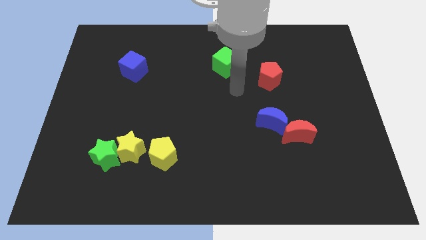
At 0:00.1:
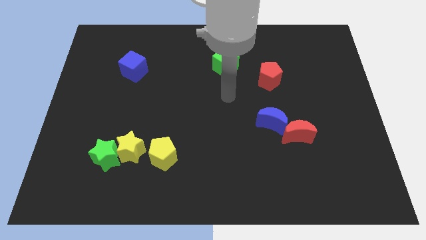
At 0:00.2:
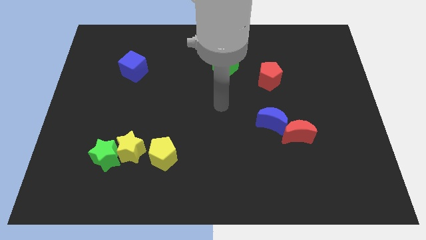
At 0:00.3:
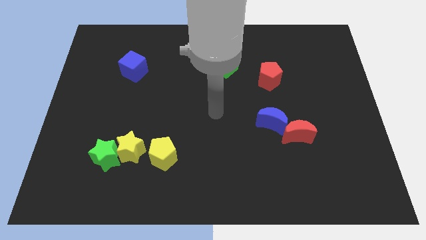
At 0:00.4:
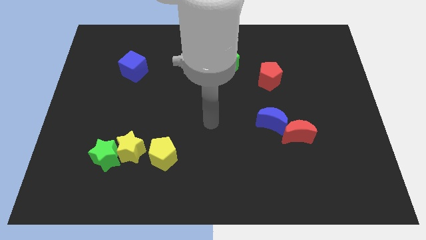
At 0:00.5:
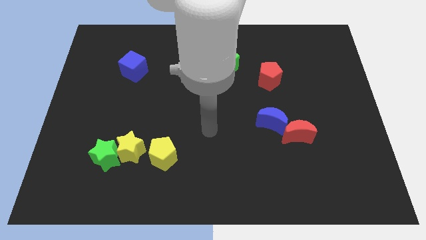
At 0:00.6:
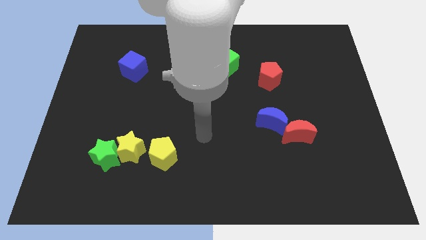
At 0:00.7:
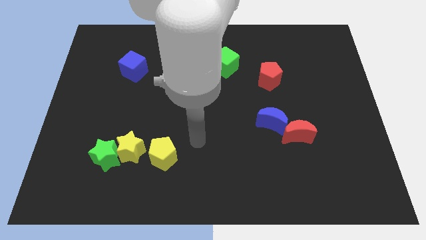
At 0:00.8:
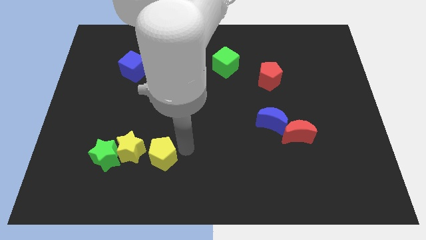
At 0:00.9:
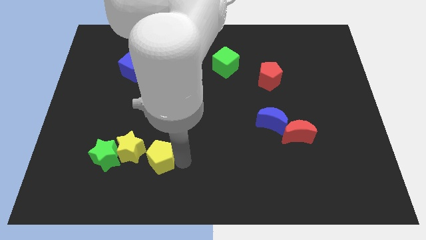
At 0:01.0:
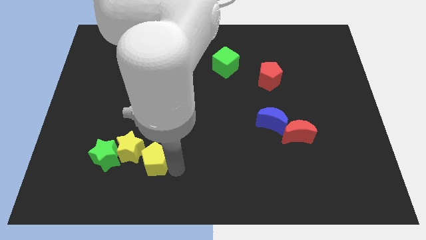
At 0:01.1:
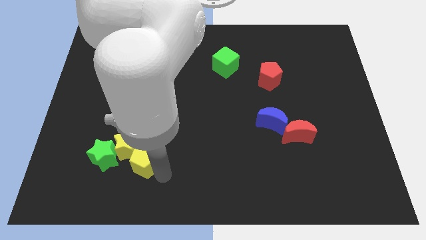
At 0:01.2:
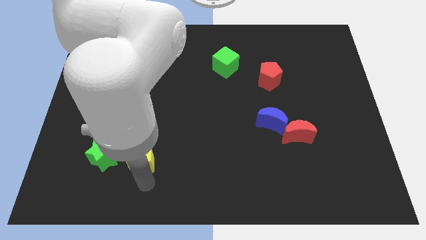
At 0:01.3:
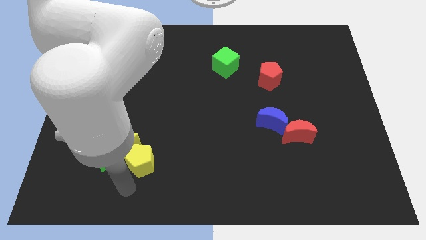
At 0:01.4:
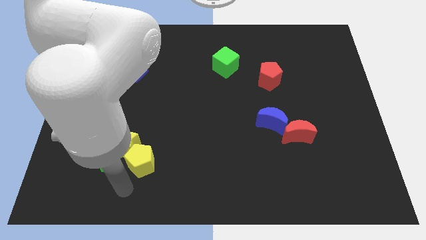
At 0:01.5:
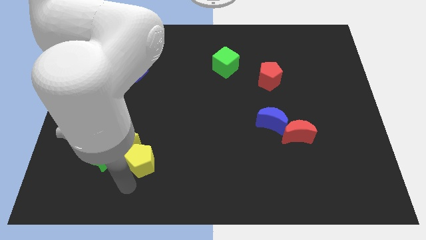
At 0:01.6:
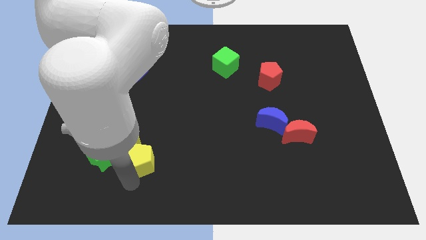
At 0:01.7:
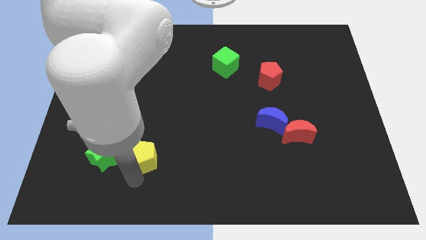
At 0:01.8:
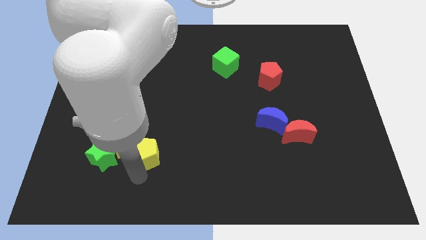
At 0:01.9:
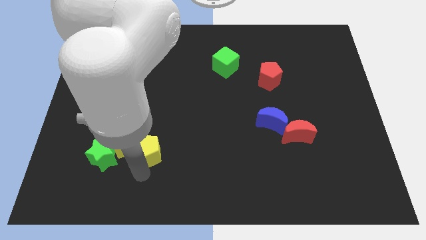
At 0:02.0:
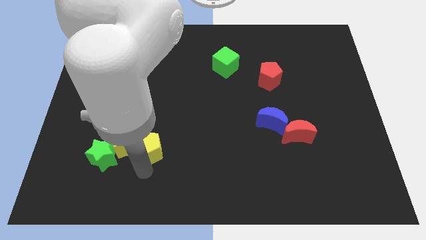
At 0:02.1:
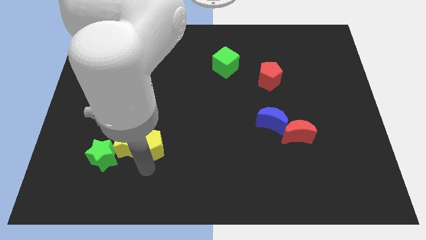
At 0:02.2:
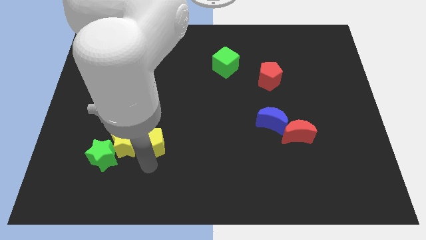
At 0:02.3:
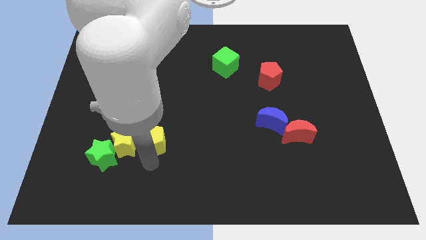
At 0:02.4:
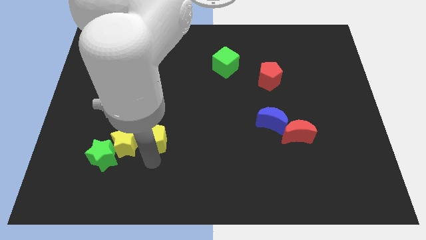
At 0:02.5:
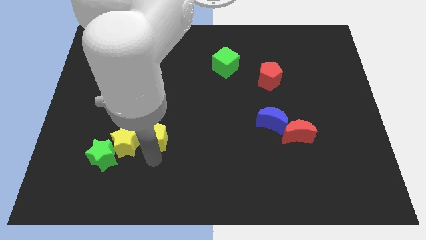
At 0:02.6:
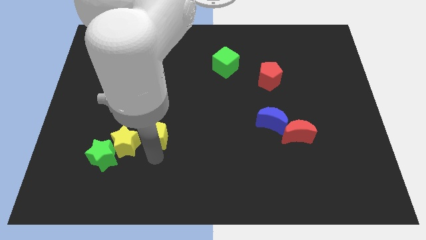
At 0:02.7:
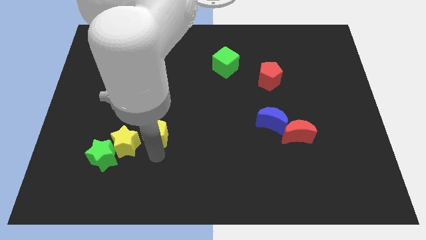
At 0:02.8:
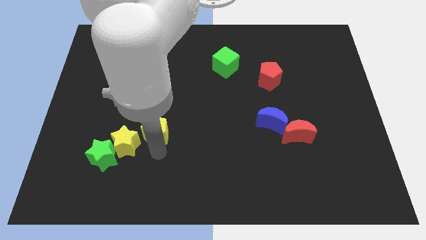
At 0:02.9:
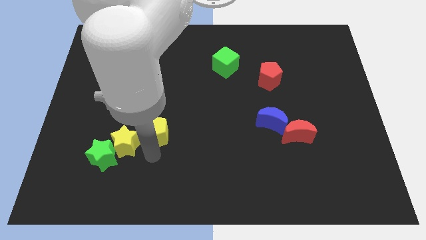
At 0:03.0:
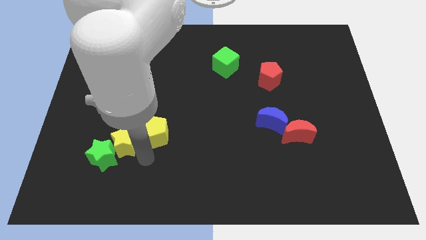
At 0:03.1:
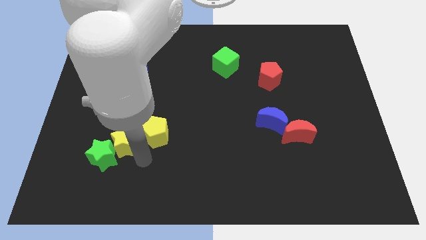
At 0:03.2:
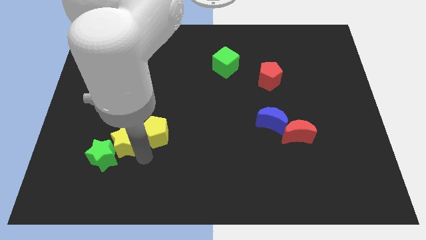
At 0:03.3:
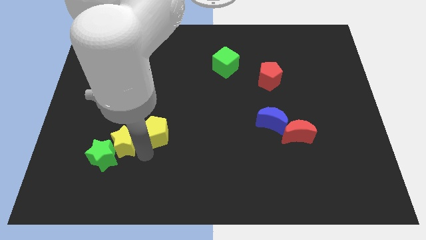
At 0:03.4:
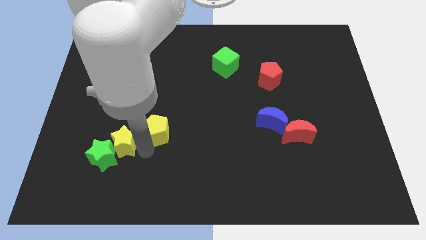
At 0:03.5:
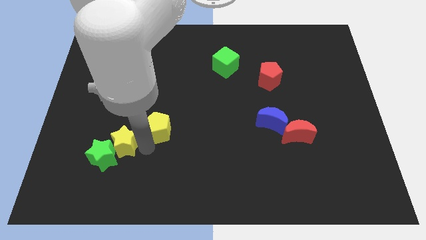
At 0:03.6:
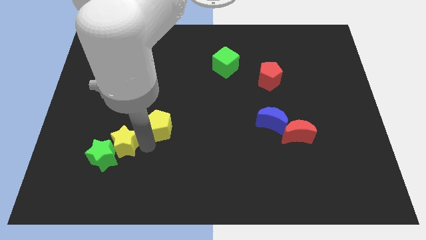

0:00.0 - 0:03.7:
slide the yellow pentagon slightly up

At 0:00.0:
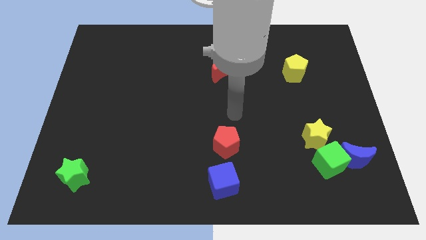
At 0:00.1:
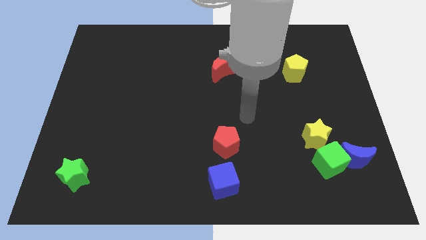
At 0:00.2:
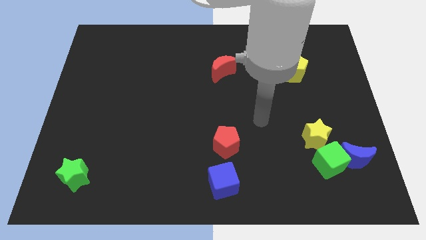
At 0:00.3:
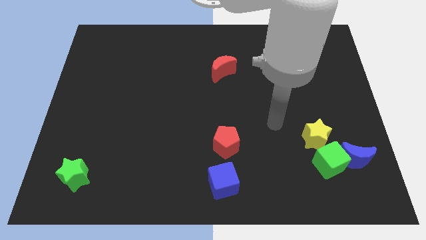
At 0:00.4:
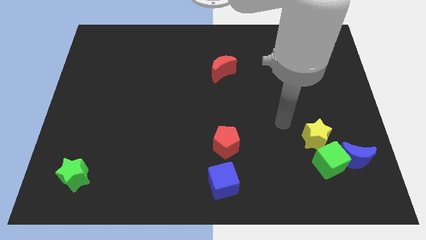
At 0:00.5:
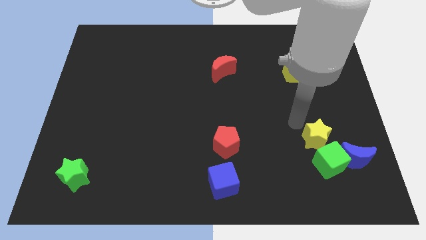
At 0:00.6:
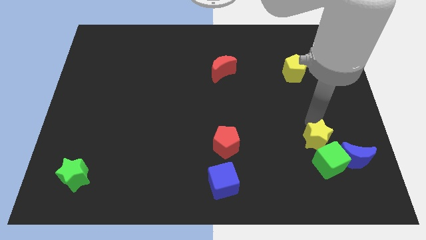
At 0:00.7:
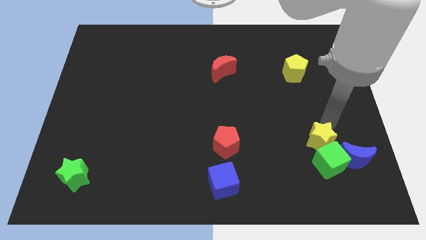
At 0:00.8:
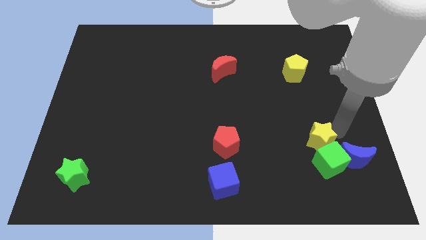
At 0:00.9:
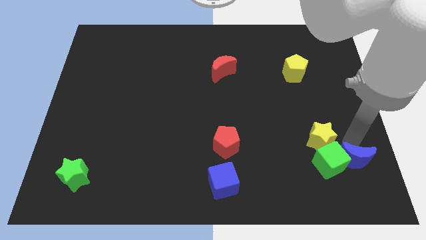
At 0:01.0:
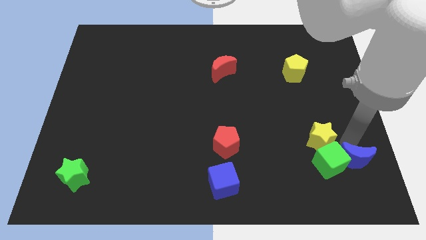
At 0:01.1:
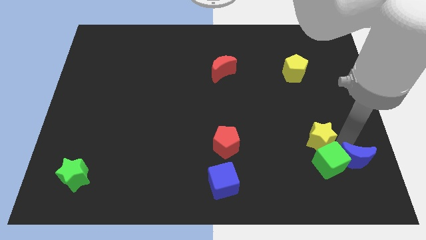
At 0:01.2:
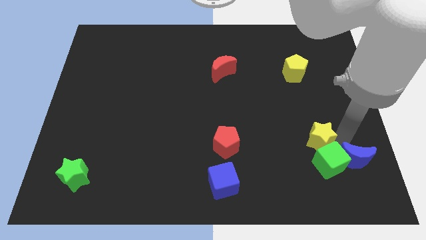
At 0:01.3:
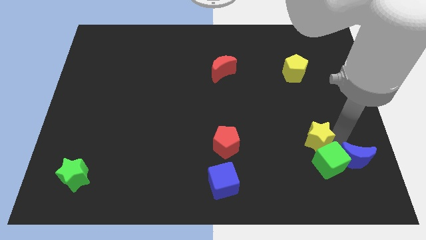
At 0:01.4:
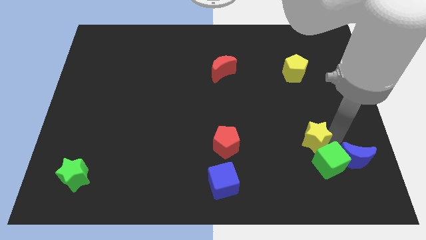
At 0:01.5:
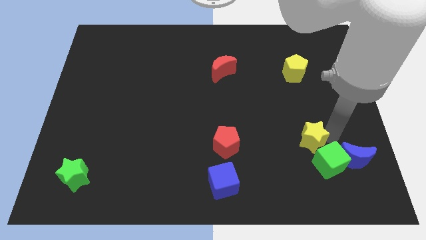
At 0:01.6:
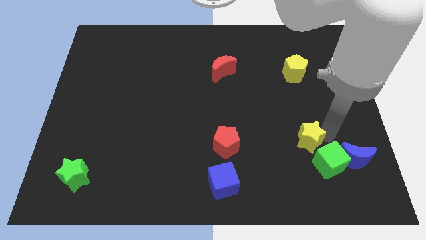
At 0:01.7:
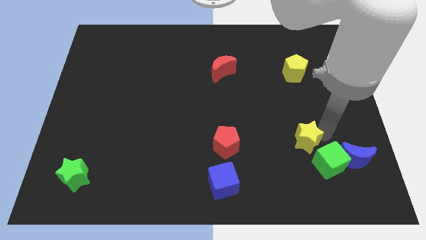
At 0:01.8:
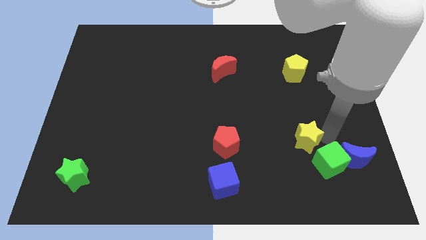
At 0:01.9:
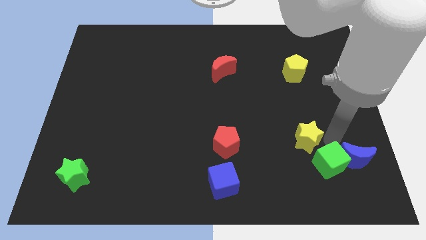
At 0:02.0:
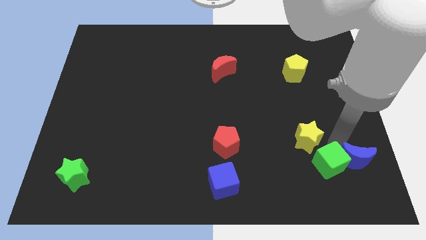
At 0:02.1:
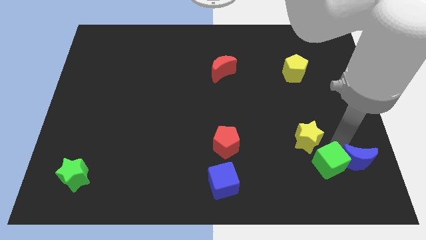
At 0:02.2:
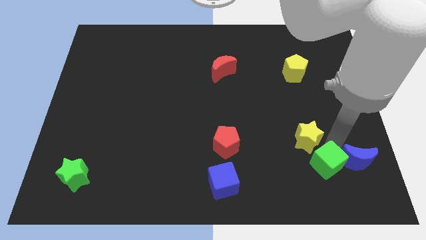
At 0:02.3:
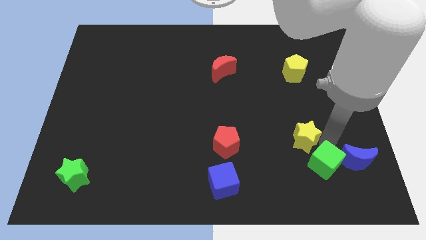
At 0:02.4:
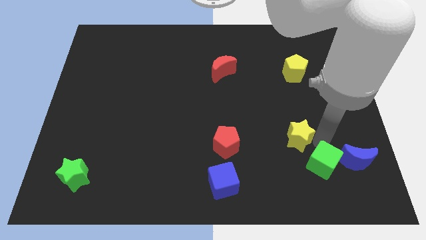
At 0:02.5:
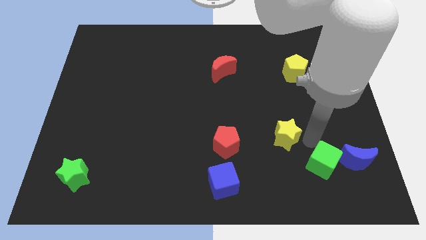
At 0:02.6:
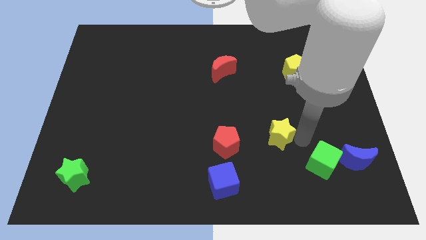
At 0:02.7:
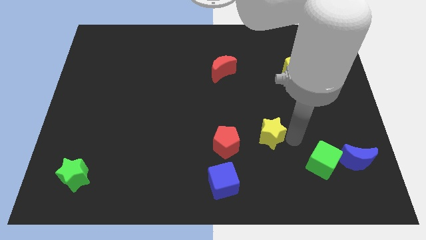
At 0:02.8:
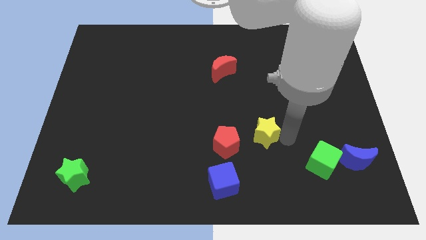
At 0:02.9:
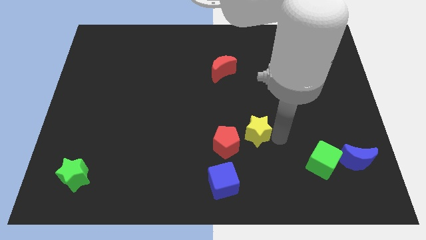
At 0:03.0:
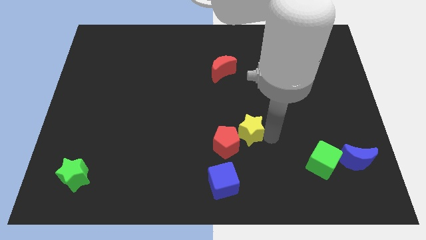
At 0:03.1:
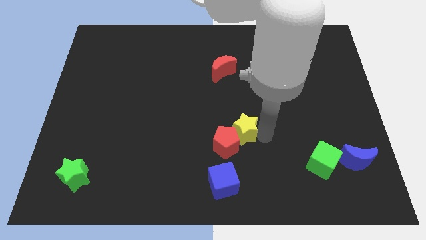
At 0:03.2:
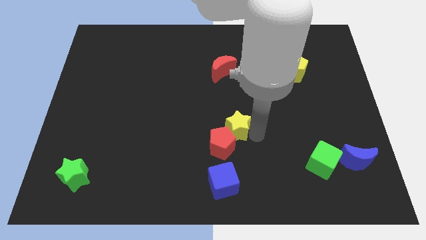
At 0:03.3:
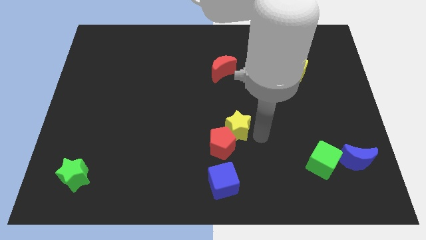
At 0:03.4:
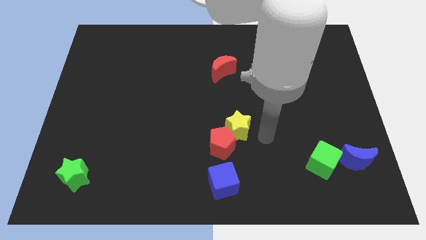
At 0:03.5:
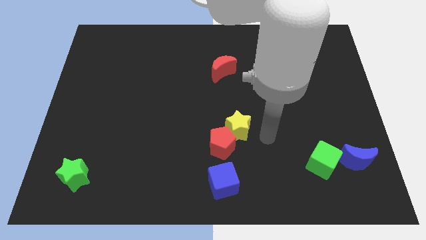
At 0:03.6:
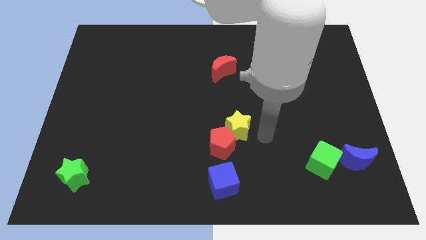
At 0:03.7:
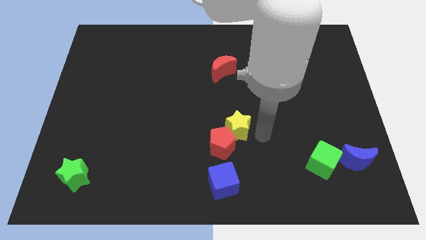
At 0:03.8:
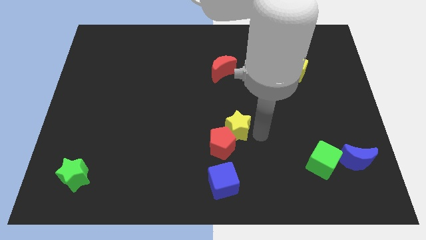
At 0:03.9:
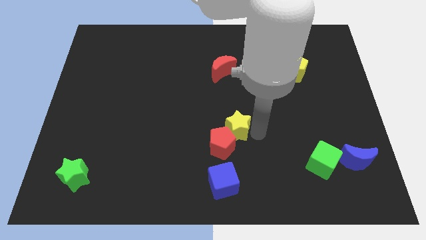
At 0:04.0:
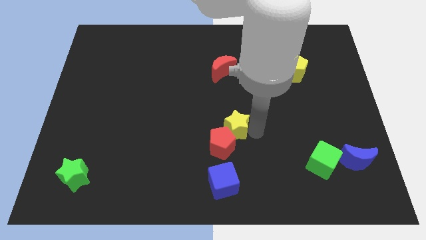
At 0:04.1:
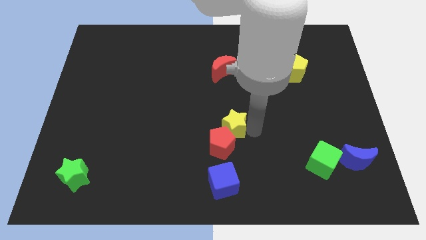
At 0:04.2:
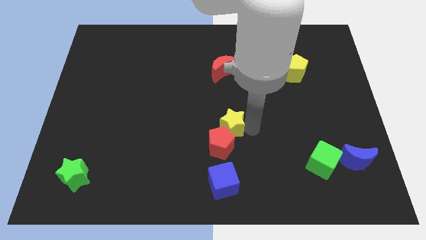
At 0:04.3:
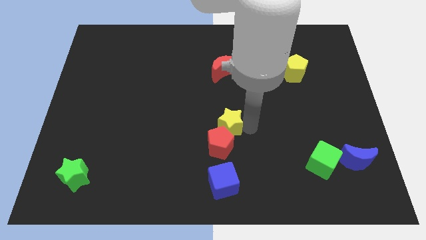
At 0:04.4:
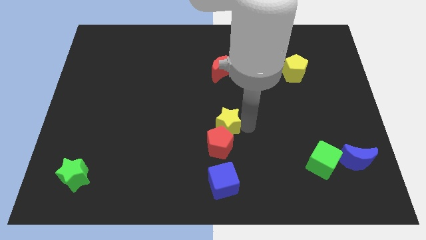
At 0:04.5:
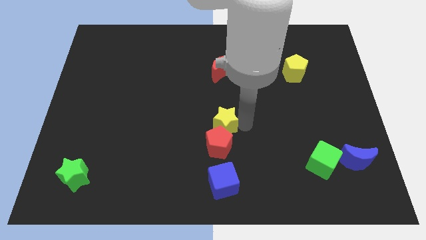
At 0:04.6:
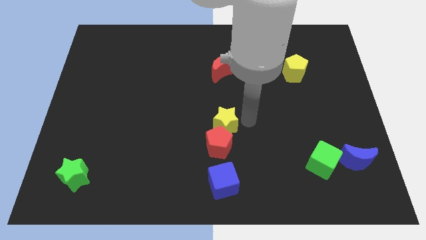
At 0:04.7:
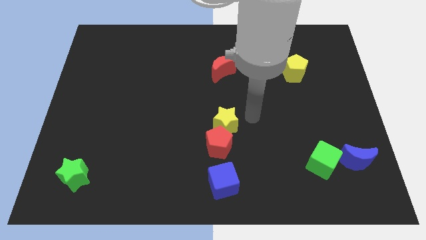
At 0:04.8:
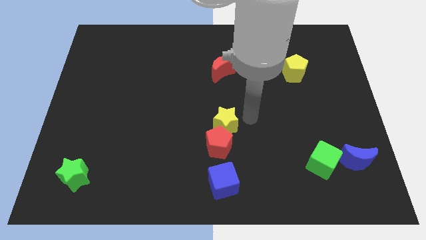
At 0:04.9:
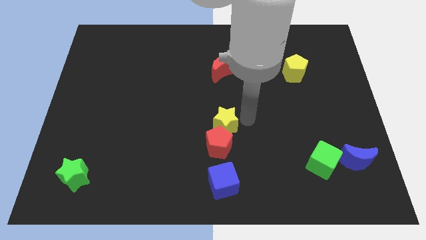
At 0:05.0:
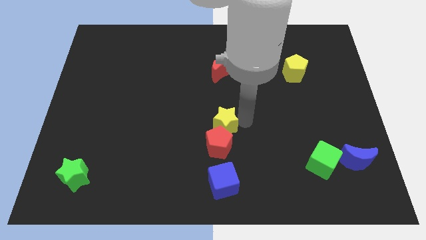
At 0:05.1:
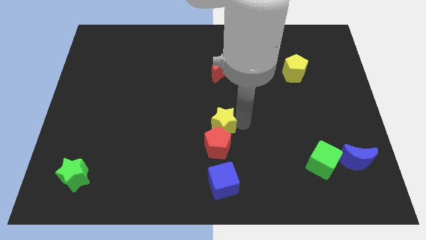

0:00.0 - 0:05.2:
move the yellow star left
